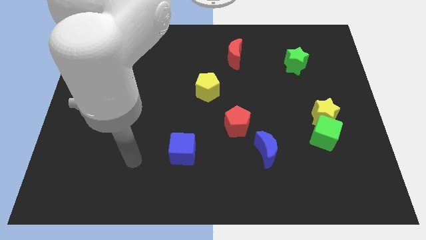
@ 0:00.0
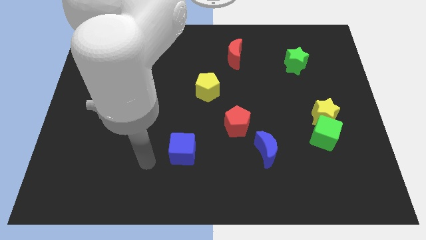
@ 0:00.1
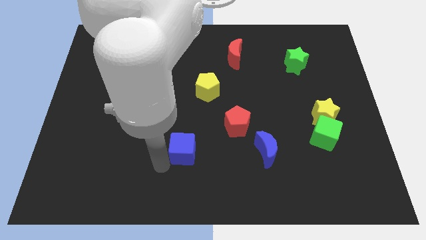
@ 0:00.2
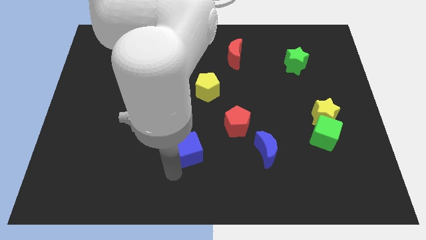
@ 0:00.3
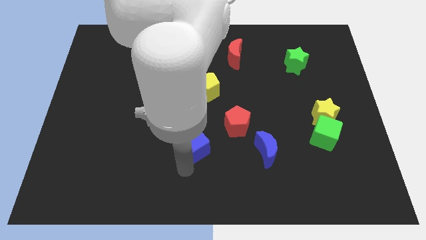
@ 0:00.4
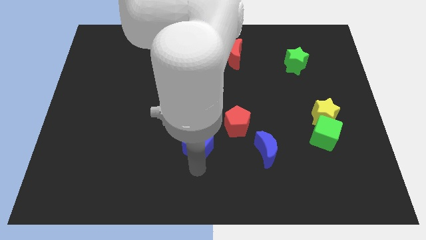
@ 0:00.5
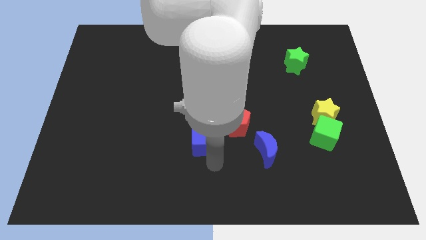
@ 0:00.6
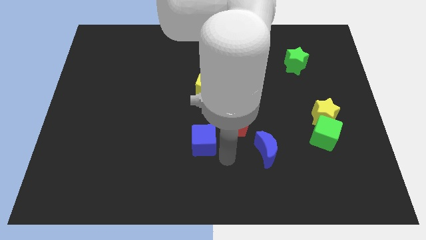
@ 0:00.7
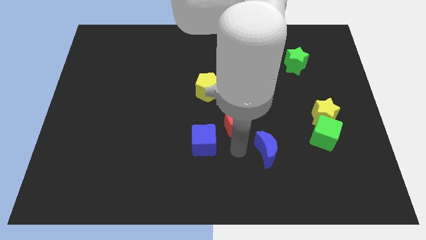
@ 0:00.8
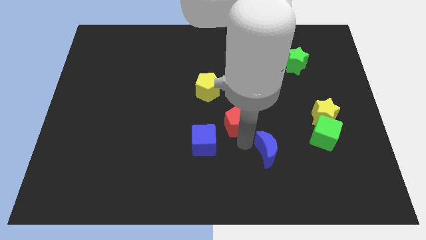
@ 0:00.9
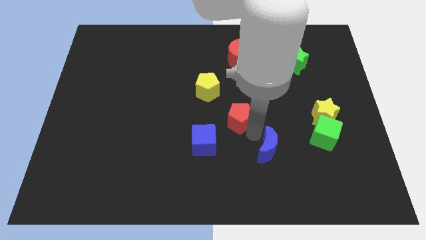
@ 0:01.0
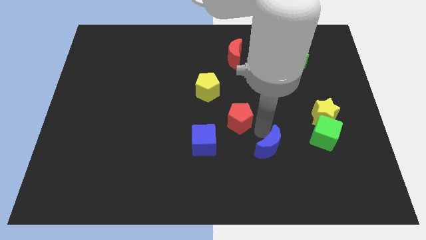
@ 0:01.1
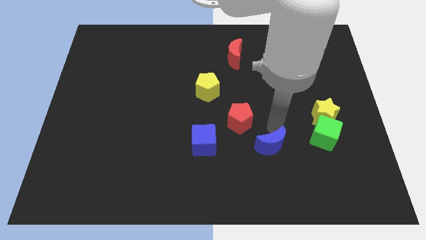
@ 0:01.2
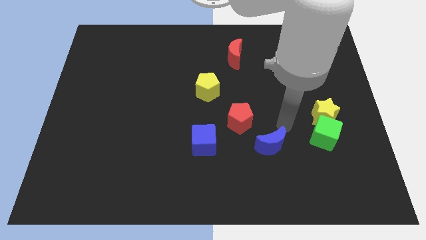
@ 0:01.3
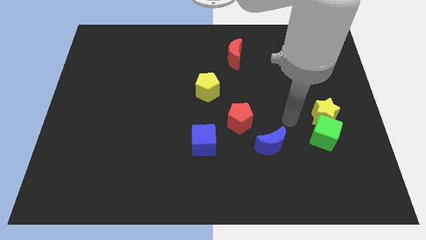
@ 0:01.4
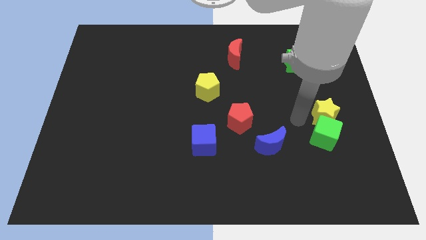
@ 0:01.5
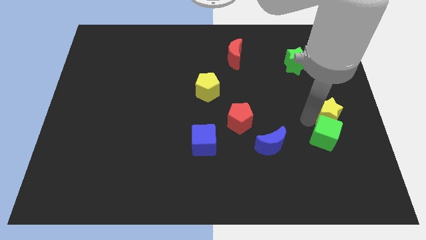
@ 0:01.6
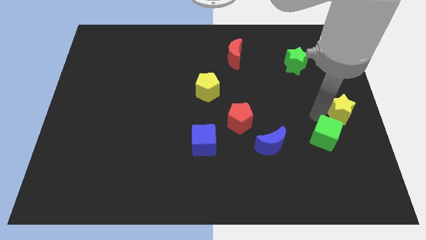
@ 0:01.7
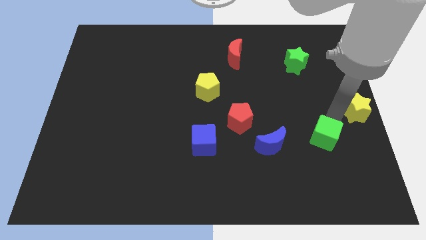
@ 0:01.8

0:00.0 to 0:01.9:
pull the green cube apart from the yellow star

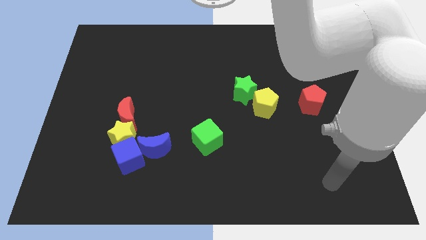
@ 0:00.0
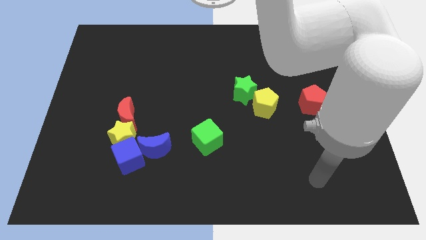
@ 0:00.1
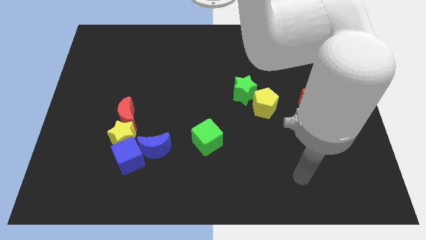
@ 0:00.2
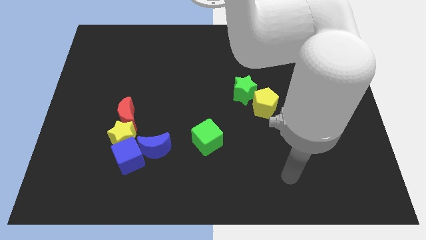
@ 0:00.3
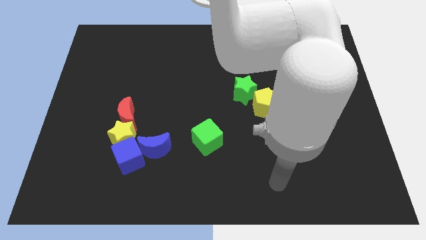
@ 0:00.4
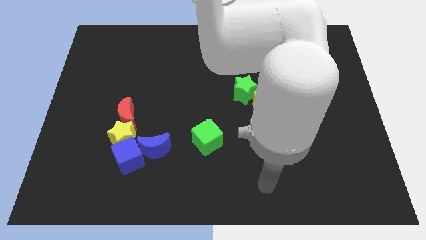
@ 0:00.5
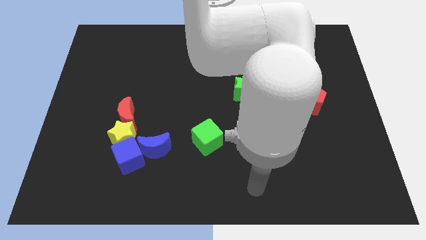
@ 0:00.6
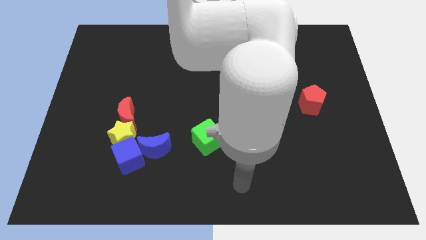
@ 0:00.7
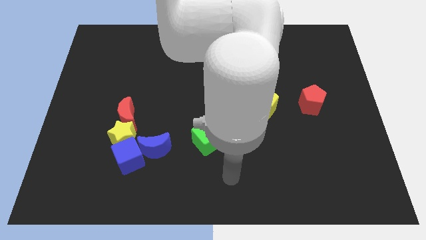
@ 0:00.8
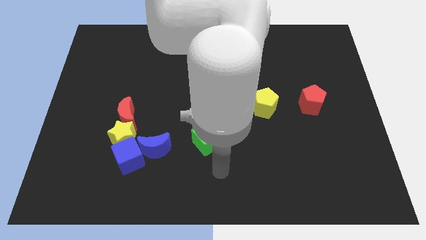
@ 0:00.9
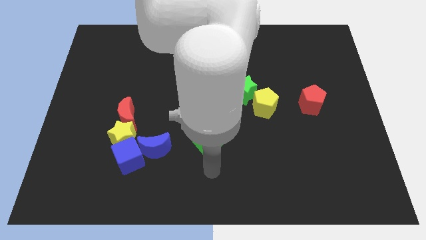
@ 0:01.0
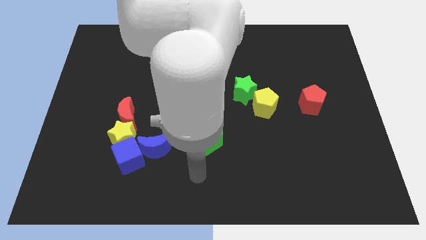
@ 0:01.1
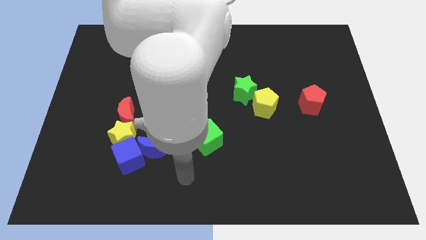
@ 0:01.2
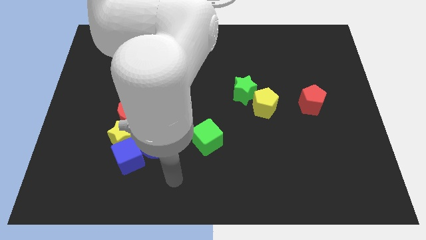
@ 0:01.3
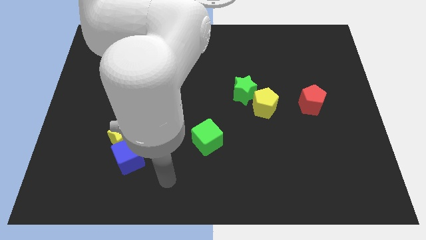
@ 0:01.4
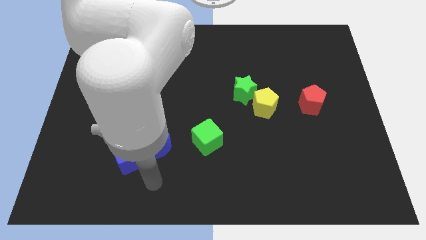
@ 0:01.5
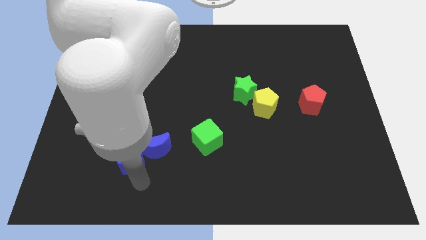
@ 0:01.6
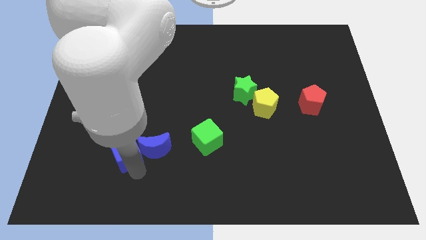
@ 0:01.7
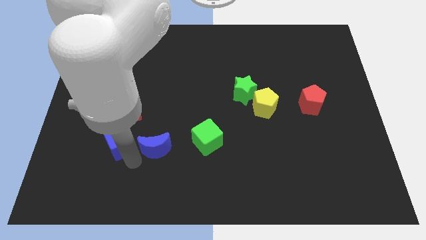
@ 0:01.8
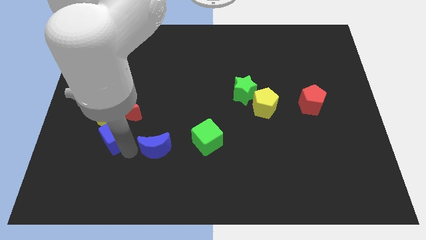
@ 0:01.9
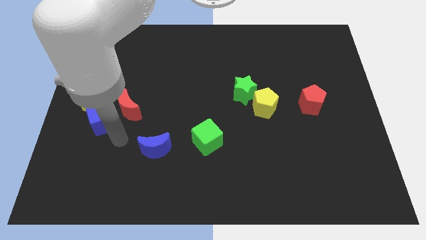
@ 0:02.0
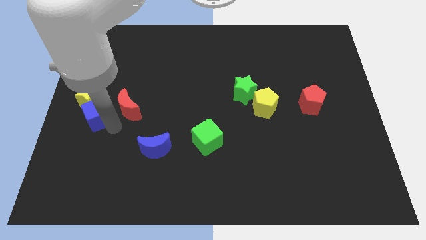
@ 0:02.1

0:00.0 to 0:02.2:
pull the red moon apart from the yellow star

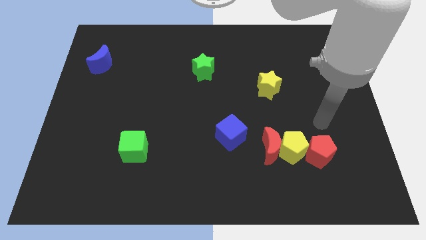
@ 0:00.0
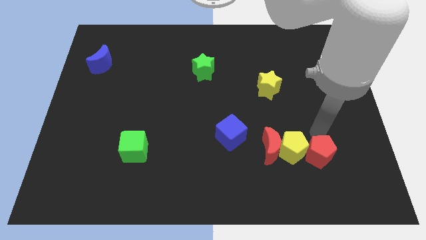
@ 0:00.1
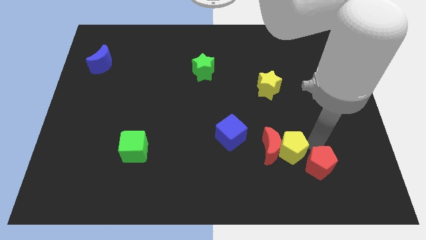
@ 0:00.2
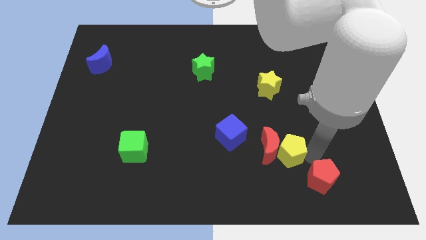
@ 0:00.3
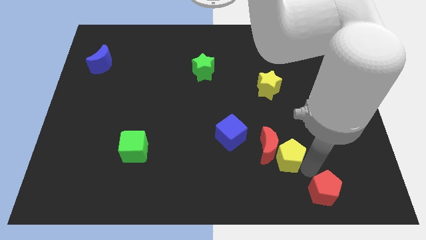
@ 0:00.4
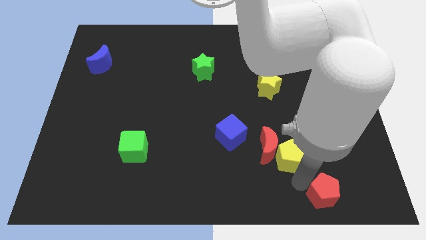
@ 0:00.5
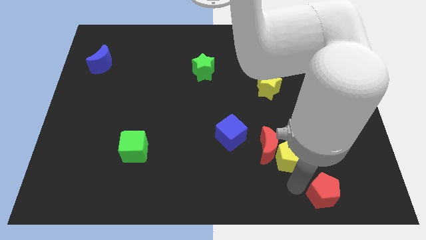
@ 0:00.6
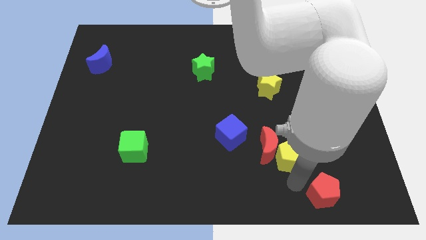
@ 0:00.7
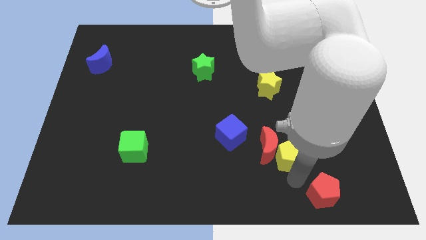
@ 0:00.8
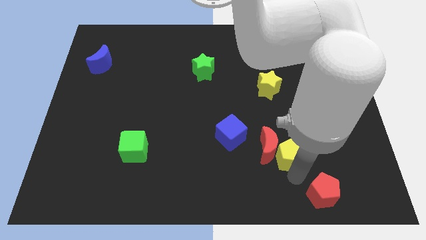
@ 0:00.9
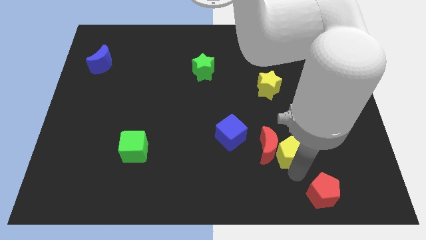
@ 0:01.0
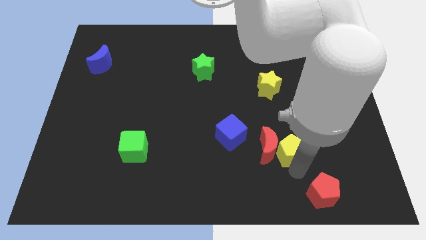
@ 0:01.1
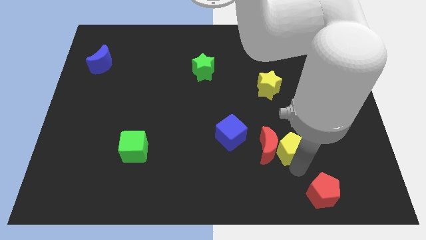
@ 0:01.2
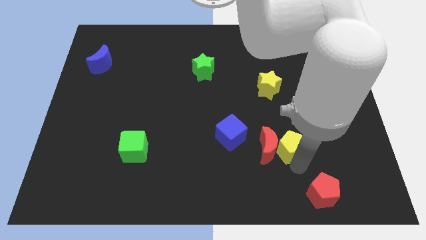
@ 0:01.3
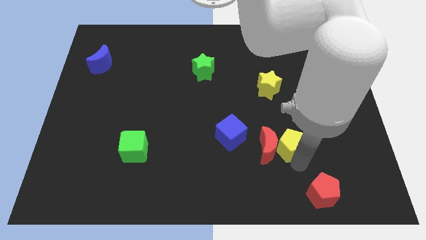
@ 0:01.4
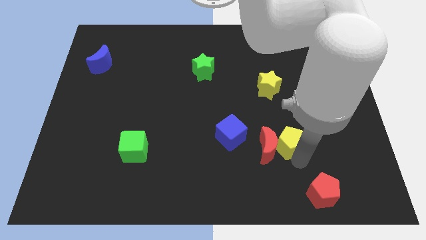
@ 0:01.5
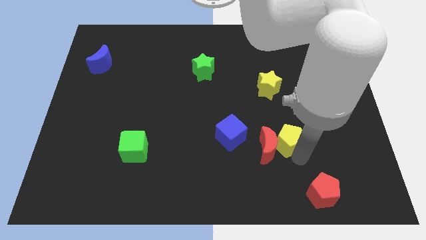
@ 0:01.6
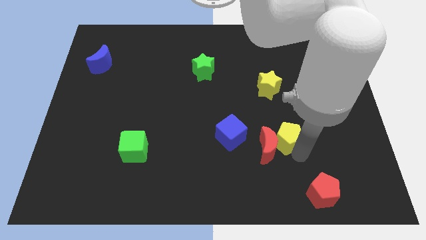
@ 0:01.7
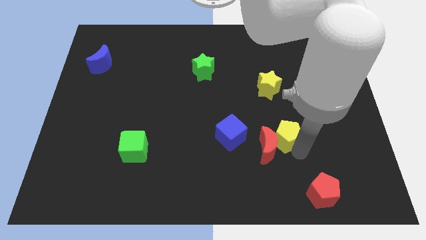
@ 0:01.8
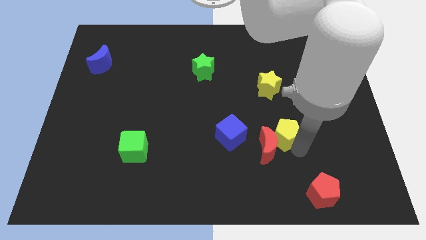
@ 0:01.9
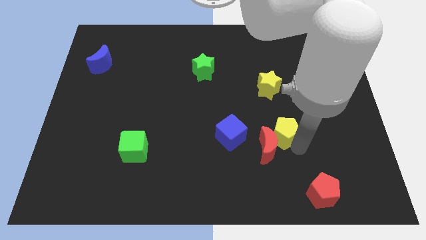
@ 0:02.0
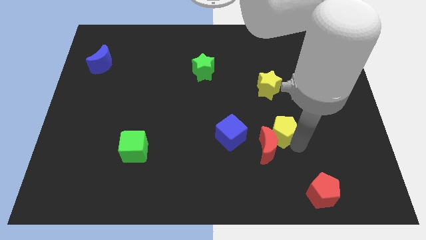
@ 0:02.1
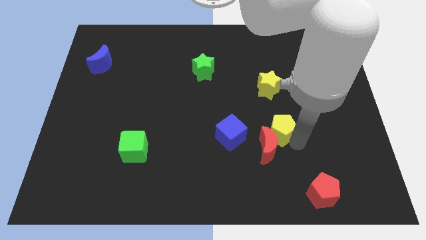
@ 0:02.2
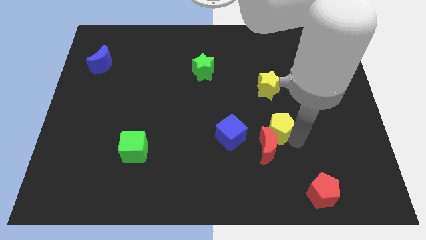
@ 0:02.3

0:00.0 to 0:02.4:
pull the yellow pentagon apart from the red moon and red pentagon

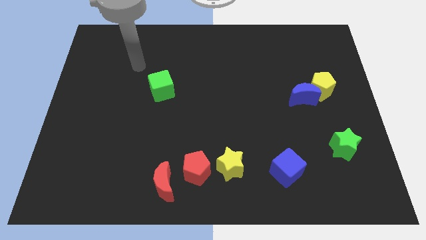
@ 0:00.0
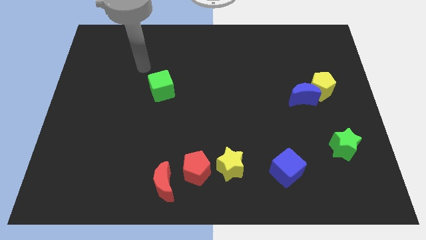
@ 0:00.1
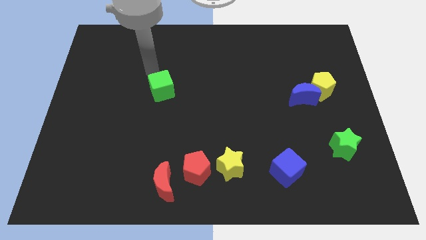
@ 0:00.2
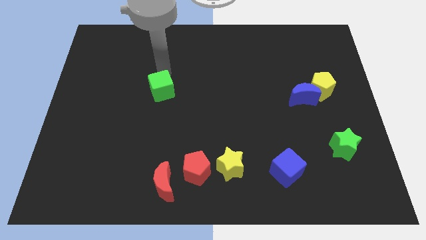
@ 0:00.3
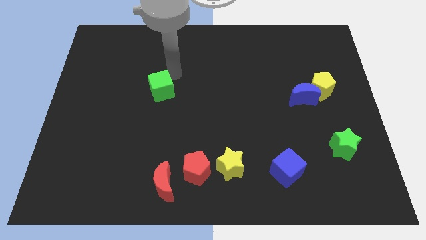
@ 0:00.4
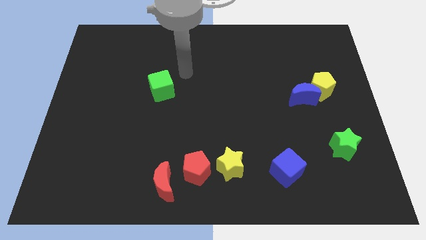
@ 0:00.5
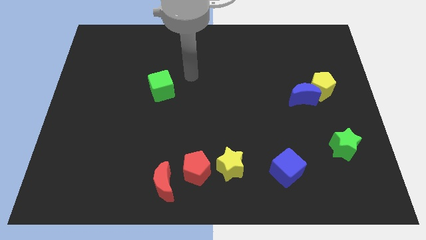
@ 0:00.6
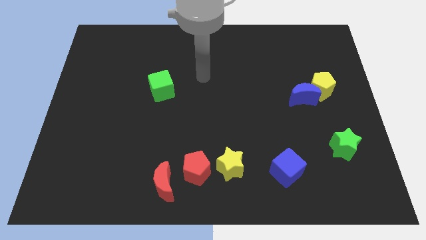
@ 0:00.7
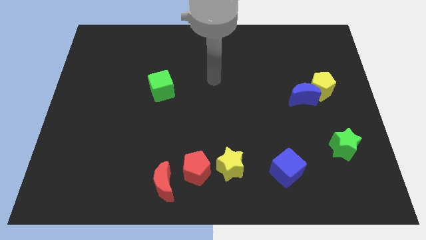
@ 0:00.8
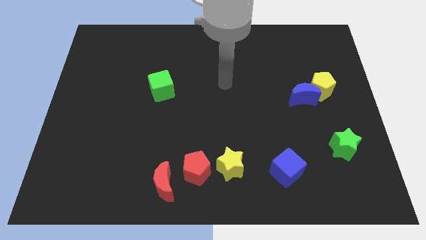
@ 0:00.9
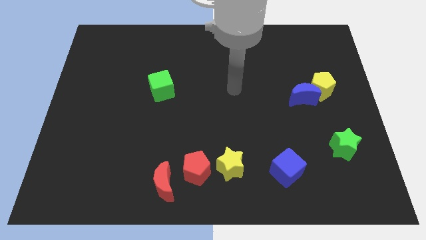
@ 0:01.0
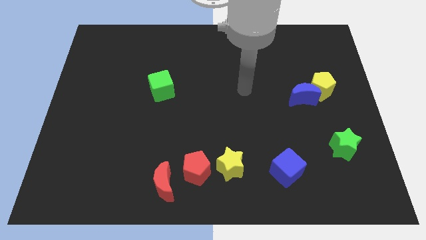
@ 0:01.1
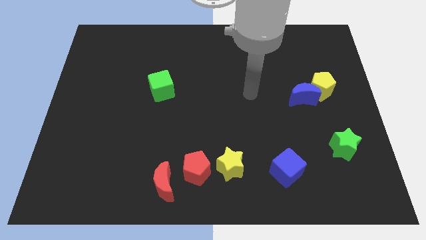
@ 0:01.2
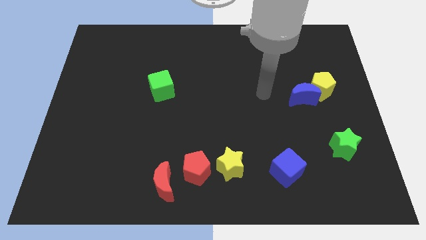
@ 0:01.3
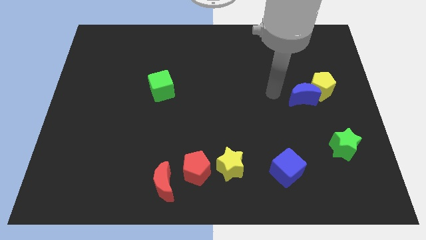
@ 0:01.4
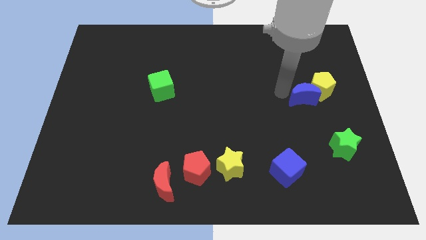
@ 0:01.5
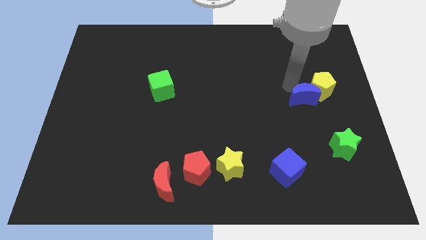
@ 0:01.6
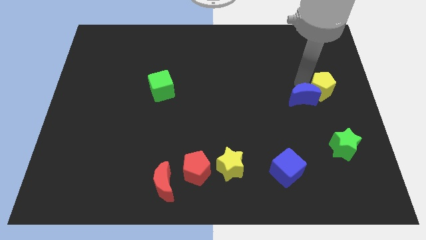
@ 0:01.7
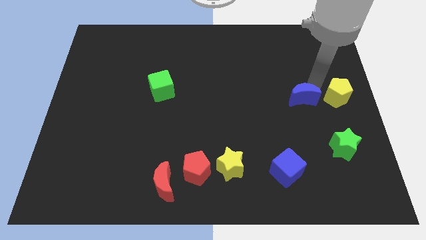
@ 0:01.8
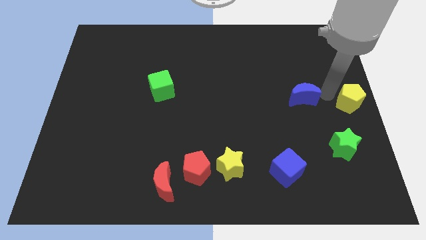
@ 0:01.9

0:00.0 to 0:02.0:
move the blue moon away from the yellow pentagon

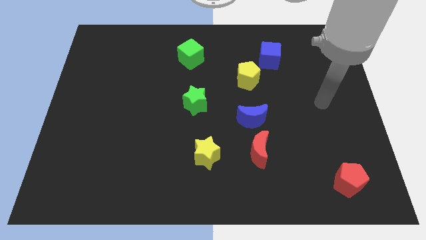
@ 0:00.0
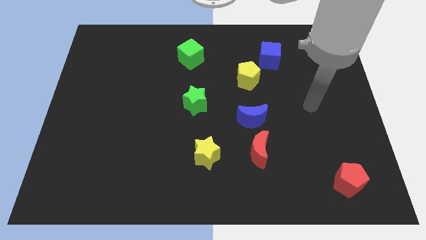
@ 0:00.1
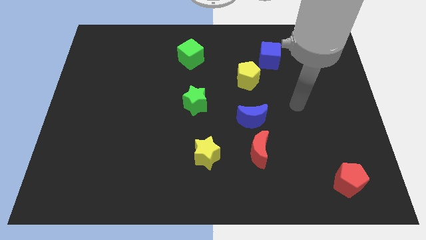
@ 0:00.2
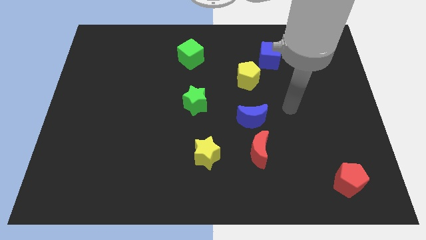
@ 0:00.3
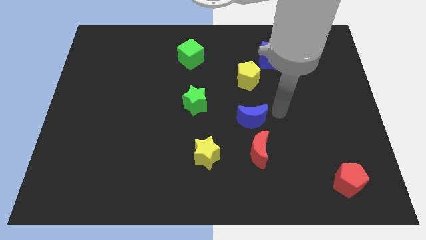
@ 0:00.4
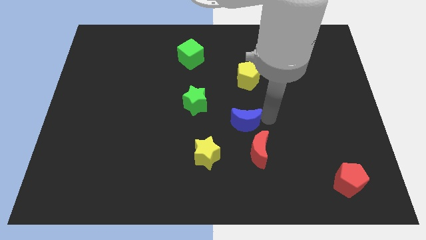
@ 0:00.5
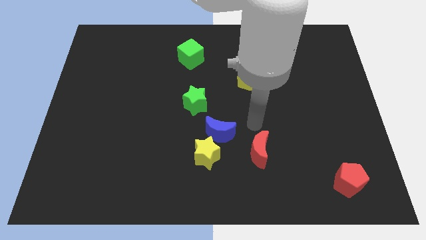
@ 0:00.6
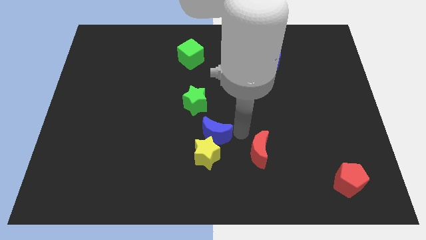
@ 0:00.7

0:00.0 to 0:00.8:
separate the red moon from the blue moon
